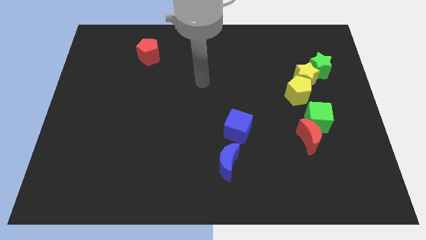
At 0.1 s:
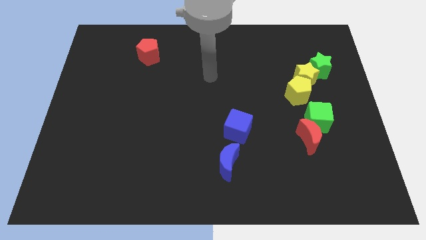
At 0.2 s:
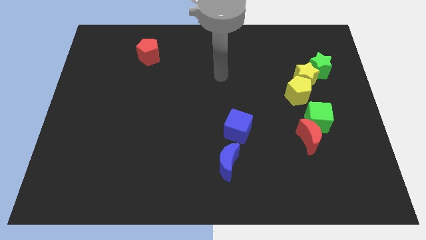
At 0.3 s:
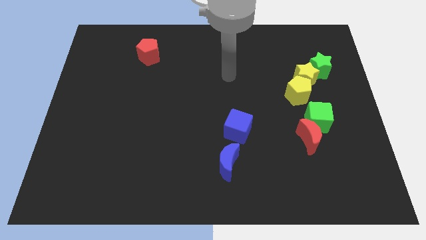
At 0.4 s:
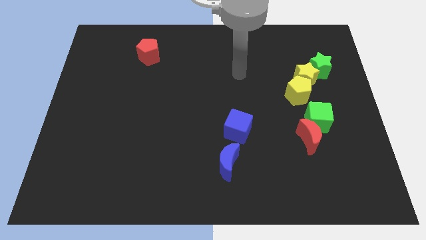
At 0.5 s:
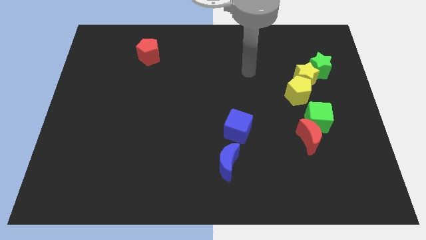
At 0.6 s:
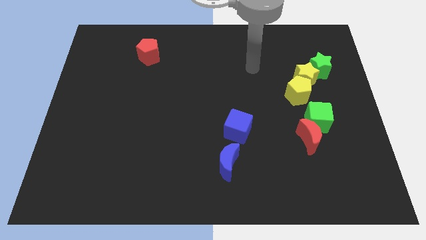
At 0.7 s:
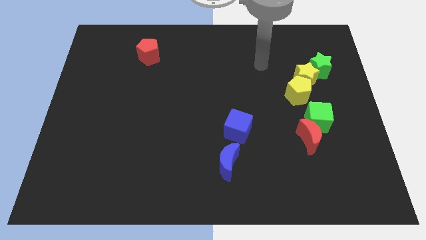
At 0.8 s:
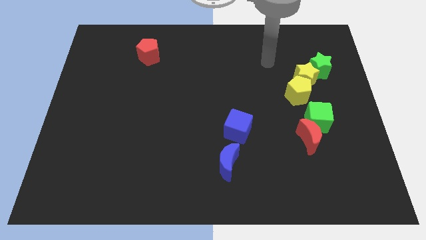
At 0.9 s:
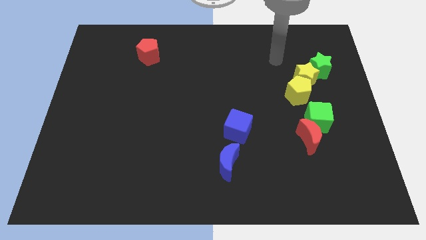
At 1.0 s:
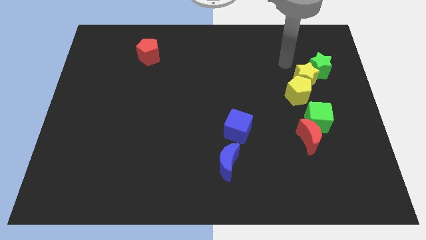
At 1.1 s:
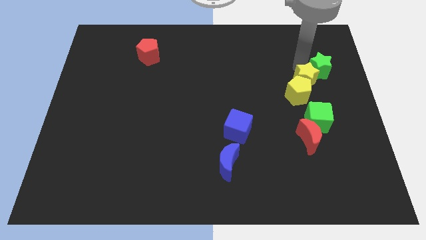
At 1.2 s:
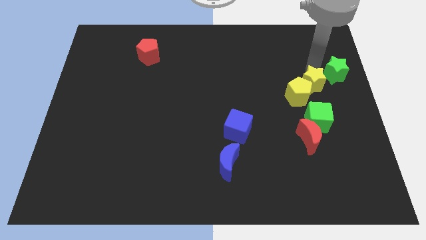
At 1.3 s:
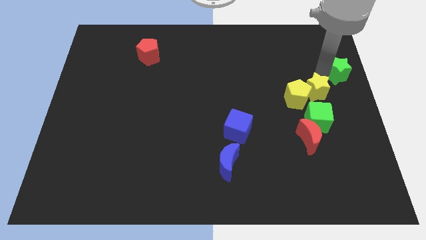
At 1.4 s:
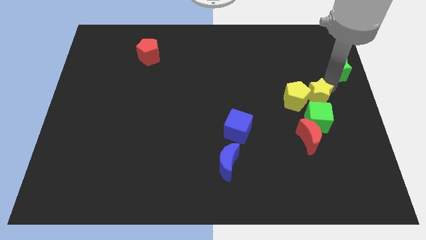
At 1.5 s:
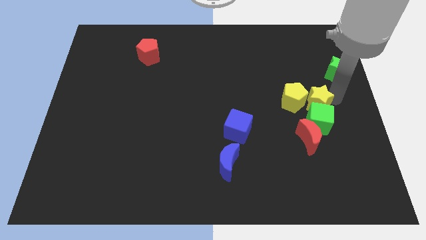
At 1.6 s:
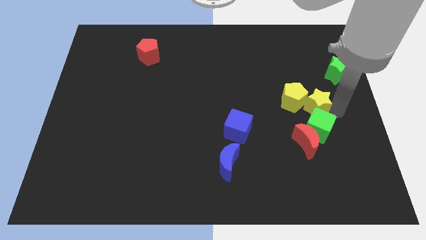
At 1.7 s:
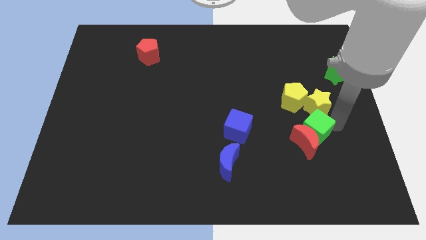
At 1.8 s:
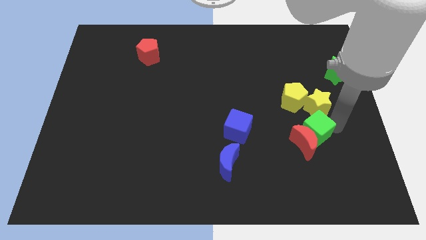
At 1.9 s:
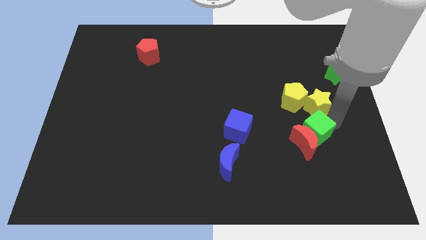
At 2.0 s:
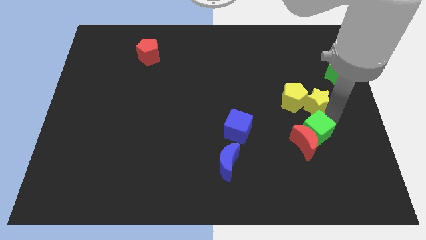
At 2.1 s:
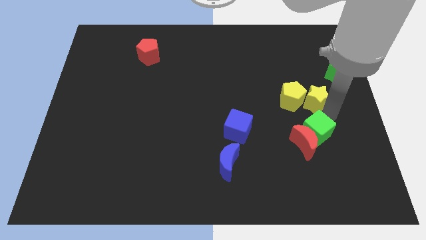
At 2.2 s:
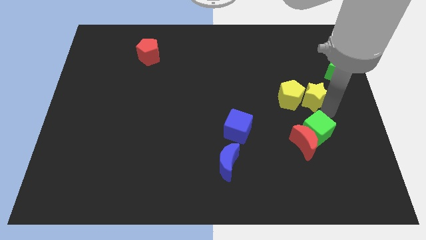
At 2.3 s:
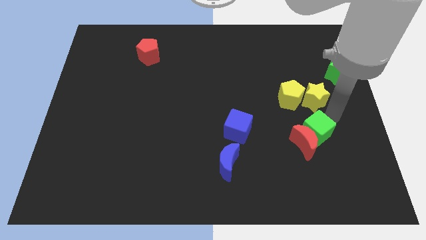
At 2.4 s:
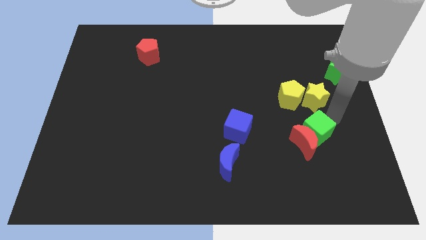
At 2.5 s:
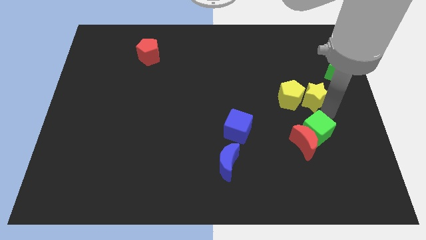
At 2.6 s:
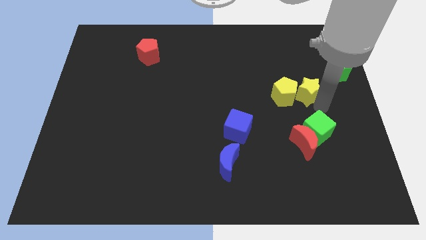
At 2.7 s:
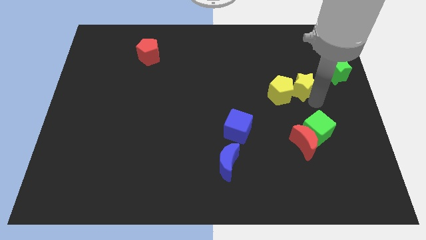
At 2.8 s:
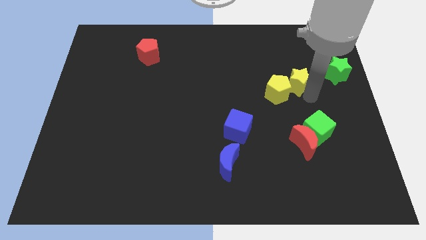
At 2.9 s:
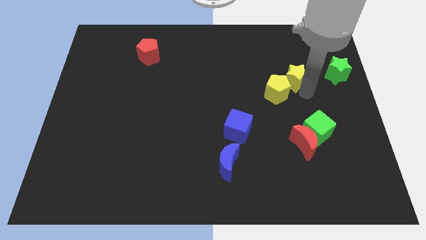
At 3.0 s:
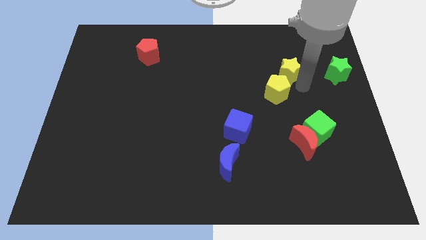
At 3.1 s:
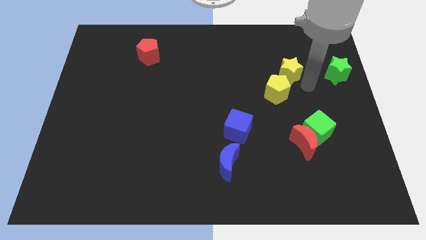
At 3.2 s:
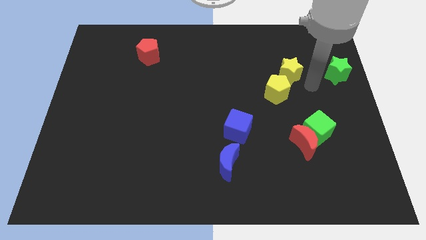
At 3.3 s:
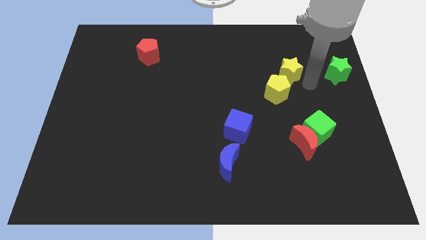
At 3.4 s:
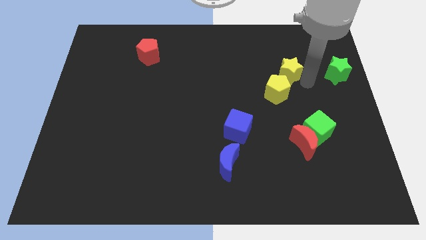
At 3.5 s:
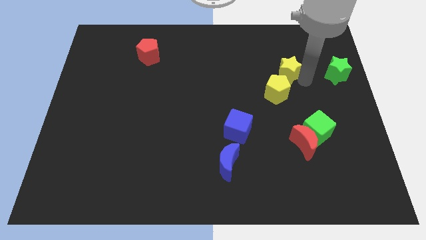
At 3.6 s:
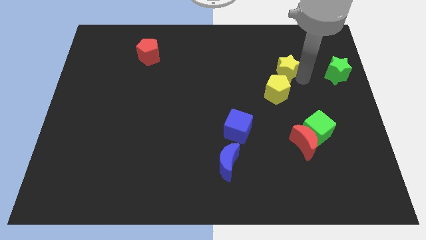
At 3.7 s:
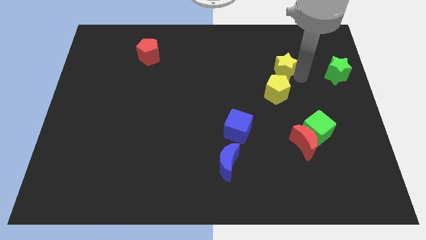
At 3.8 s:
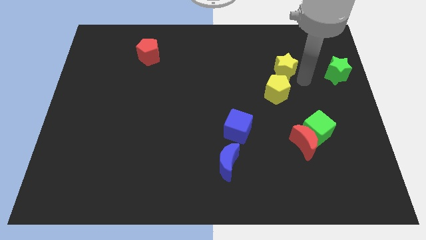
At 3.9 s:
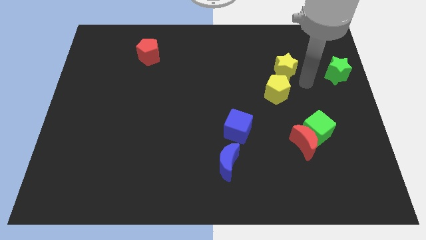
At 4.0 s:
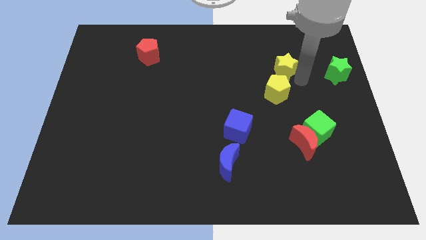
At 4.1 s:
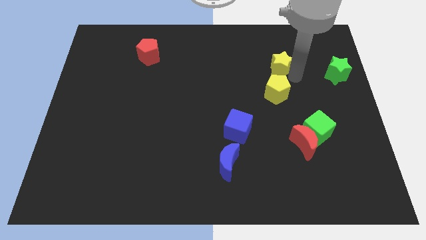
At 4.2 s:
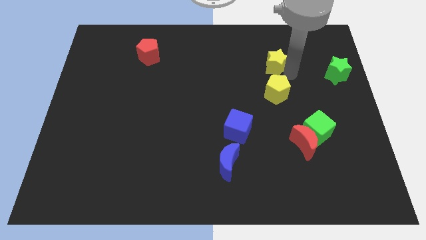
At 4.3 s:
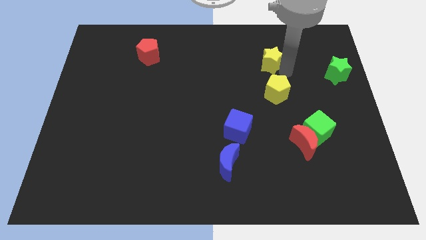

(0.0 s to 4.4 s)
move the yellow star away from the yellow pentagon and green star

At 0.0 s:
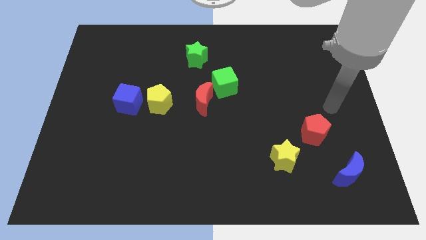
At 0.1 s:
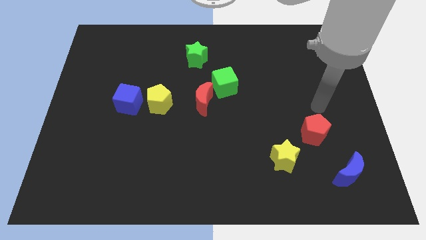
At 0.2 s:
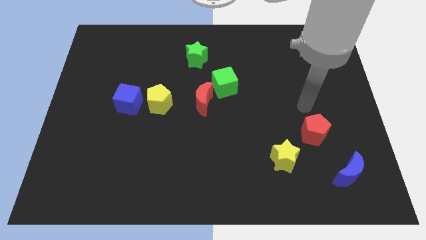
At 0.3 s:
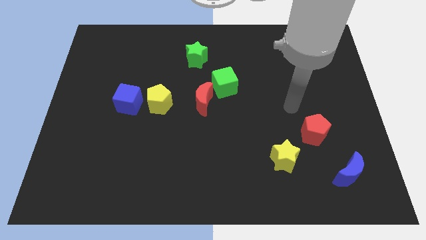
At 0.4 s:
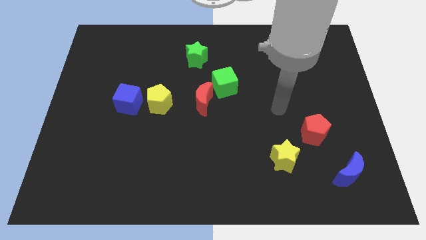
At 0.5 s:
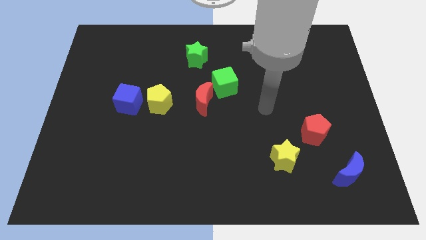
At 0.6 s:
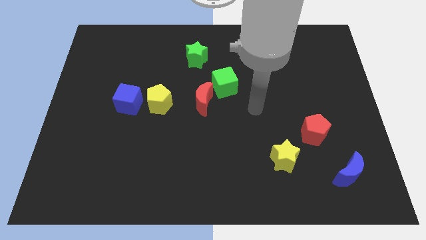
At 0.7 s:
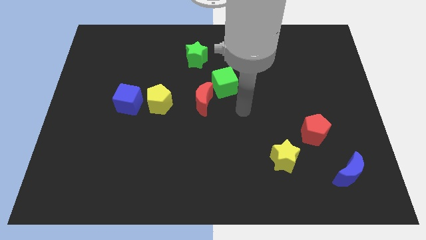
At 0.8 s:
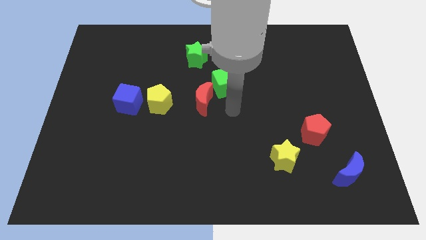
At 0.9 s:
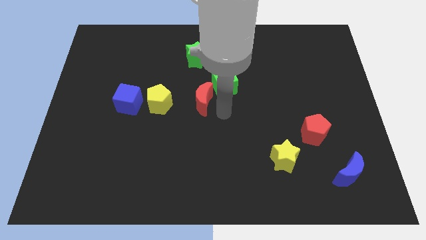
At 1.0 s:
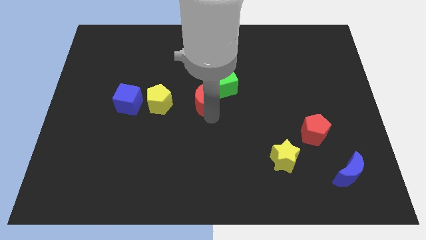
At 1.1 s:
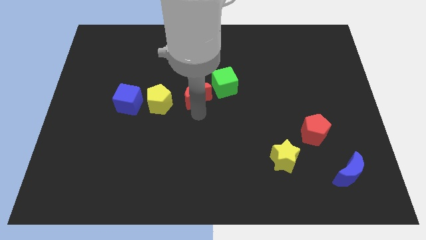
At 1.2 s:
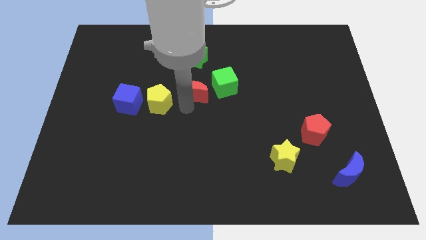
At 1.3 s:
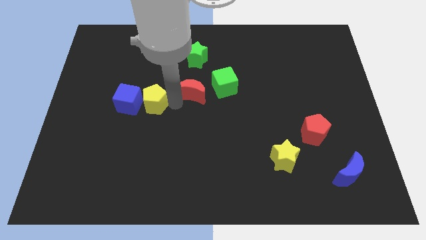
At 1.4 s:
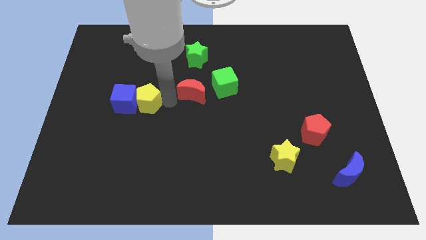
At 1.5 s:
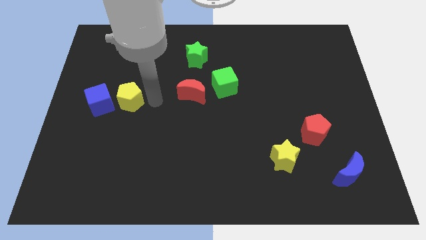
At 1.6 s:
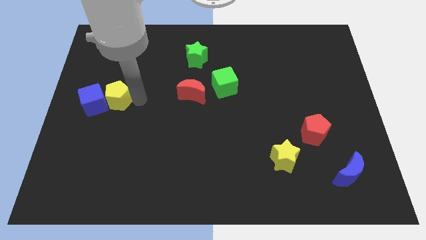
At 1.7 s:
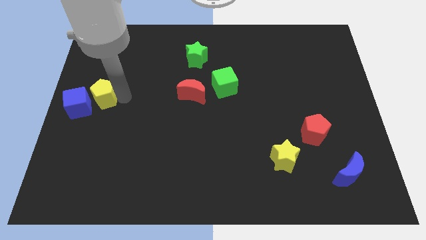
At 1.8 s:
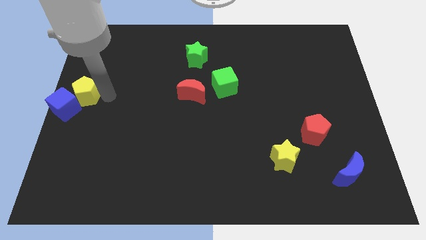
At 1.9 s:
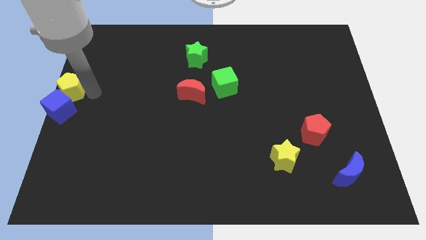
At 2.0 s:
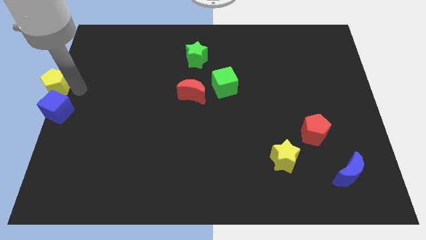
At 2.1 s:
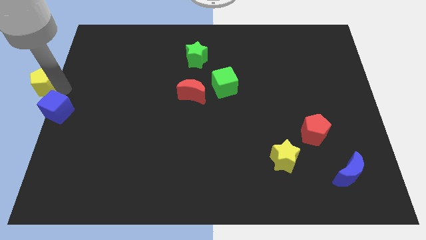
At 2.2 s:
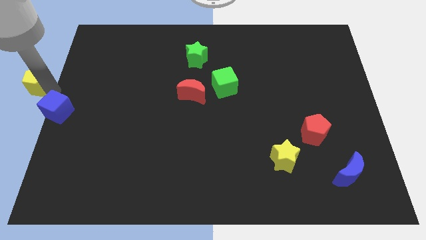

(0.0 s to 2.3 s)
separate the blue cube from the yellow pentagon

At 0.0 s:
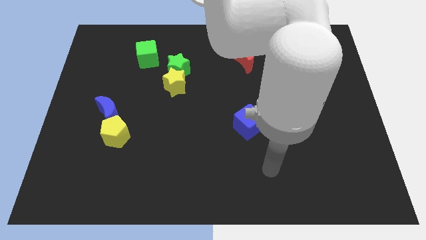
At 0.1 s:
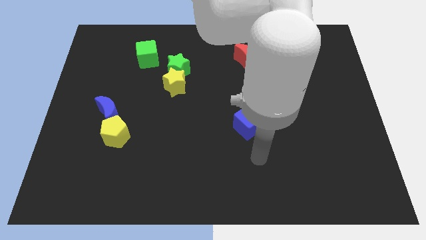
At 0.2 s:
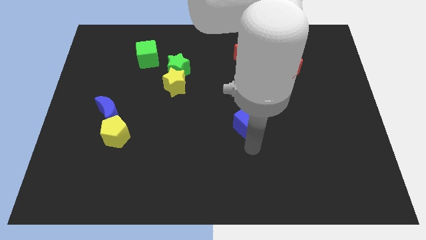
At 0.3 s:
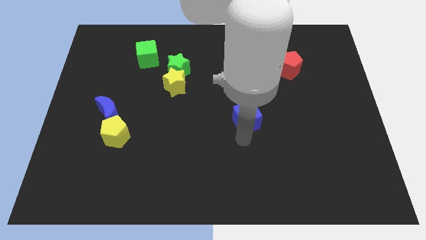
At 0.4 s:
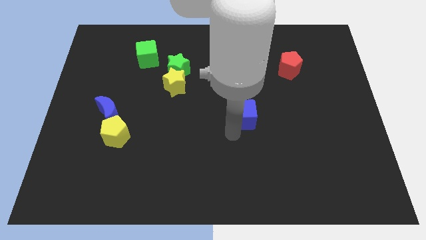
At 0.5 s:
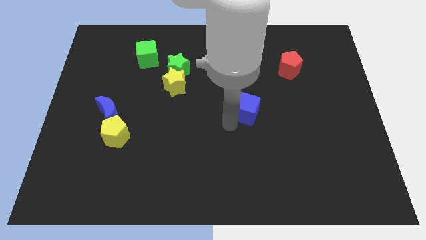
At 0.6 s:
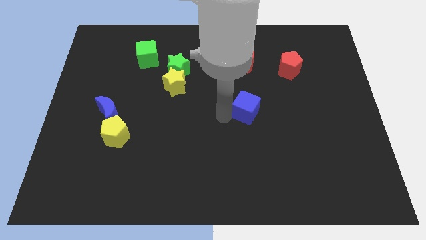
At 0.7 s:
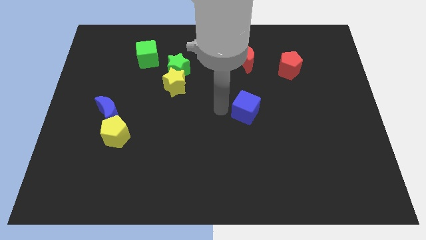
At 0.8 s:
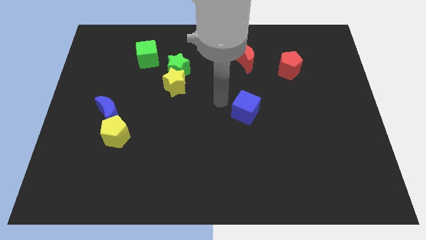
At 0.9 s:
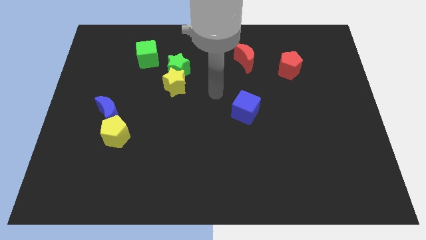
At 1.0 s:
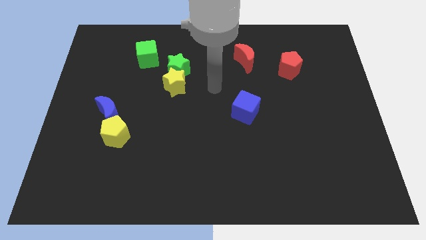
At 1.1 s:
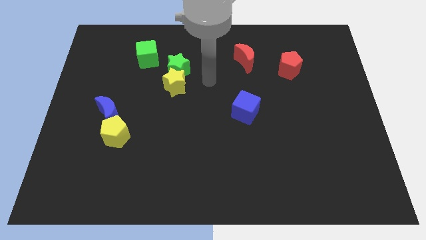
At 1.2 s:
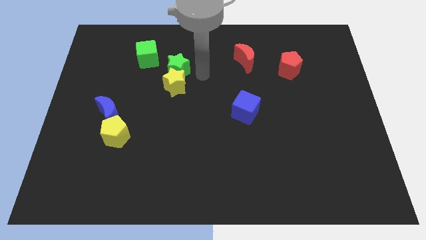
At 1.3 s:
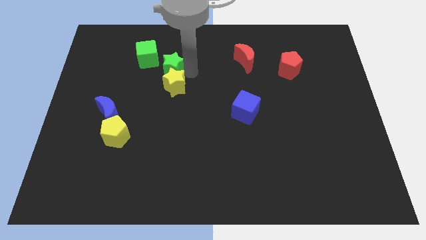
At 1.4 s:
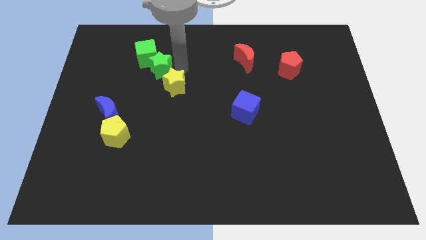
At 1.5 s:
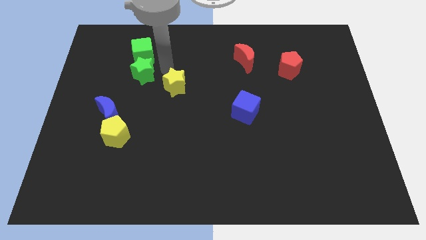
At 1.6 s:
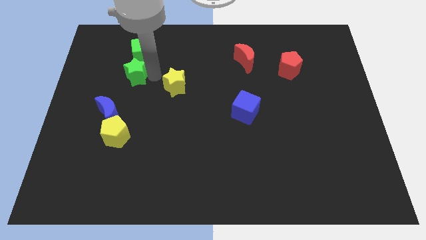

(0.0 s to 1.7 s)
move the yellow star away from the green star

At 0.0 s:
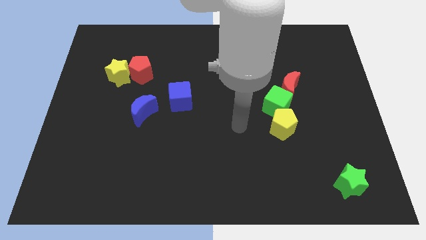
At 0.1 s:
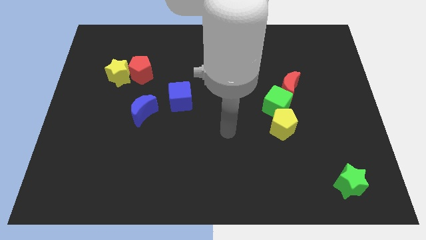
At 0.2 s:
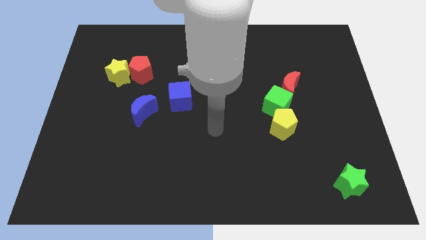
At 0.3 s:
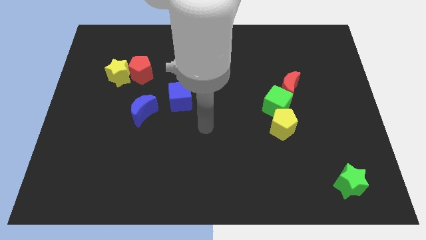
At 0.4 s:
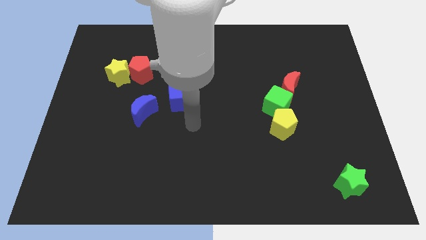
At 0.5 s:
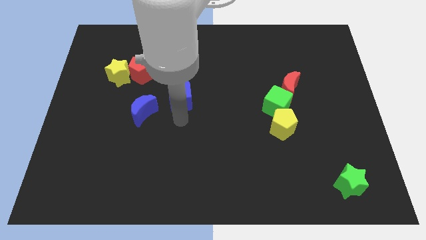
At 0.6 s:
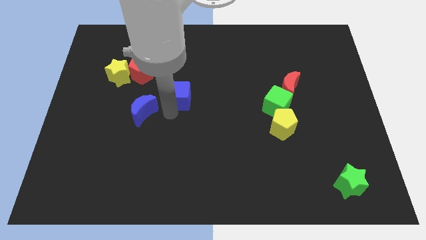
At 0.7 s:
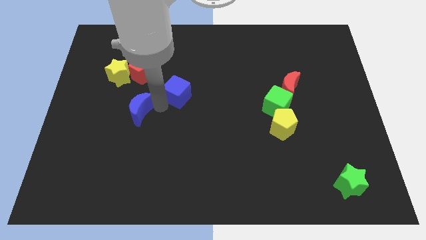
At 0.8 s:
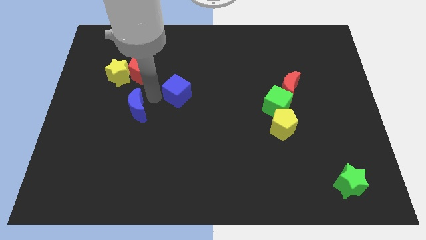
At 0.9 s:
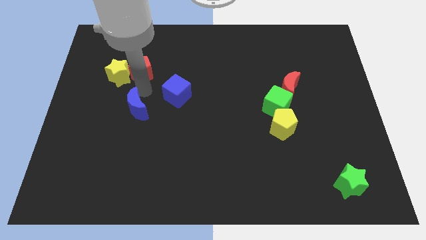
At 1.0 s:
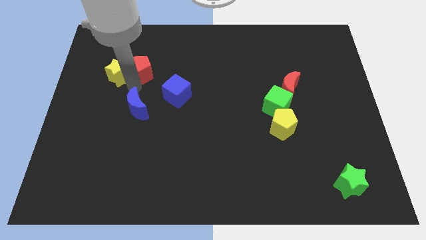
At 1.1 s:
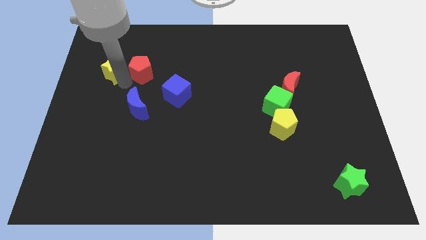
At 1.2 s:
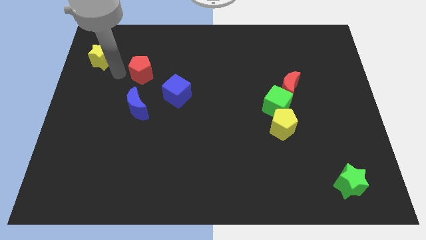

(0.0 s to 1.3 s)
pull the red pentagon apart from the yellow star
